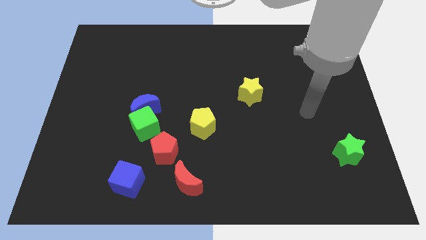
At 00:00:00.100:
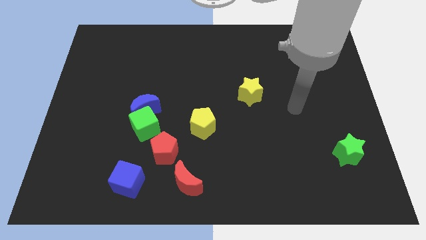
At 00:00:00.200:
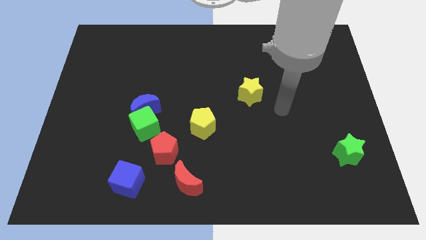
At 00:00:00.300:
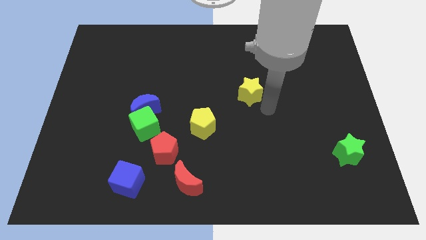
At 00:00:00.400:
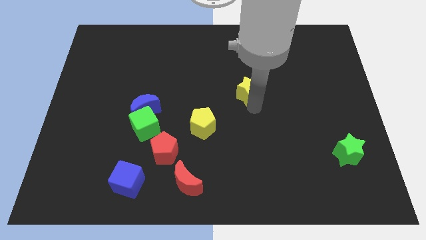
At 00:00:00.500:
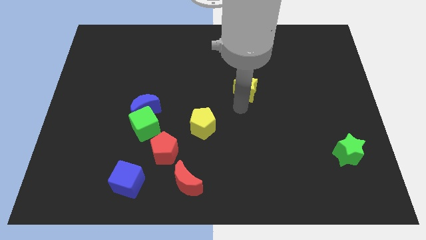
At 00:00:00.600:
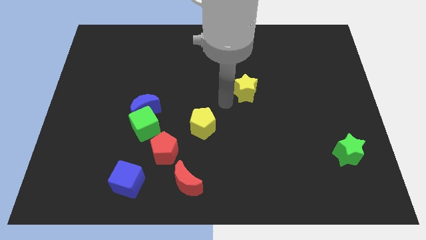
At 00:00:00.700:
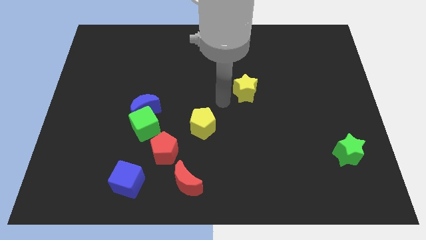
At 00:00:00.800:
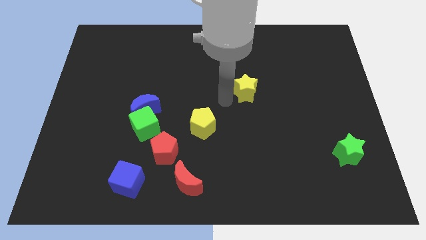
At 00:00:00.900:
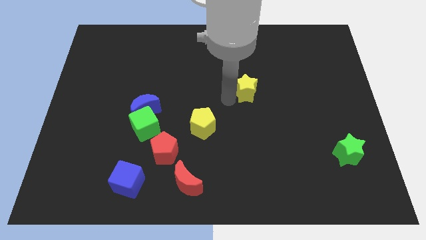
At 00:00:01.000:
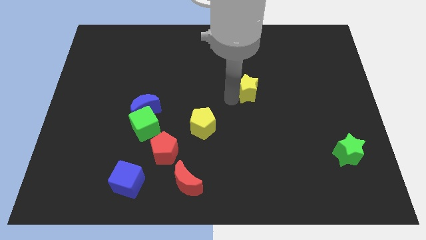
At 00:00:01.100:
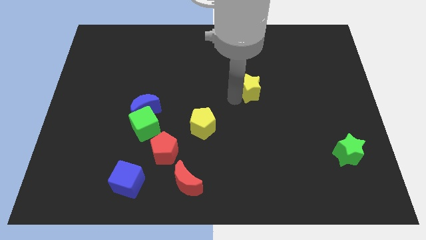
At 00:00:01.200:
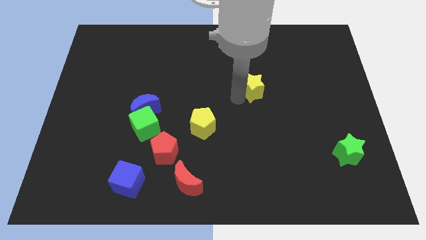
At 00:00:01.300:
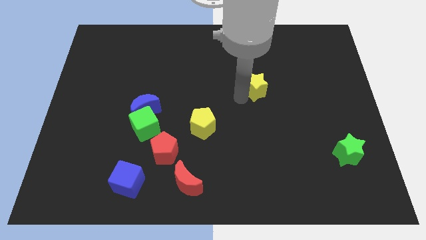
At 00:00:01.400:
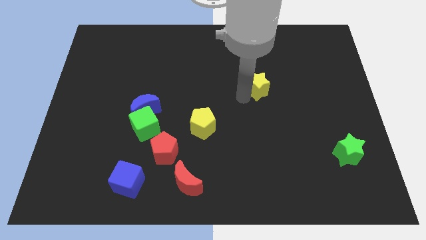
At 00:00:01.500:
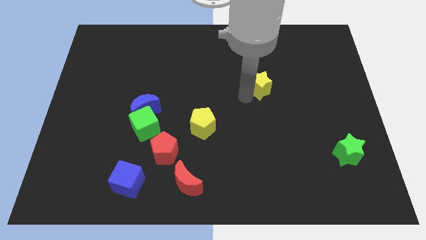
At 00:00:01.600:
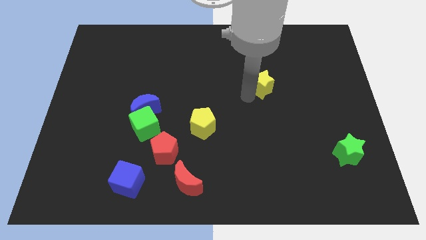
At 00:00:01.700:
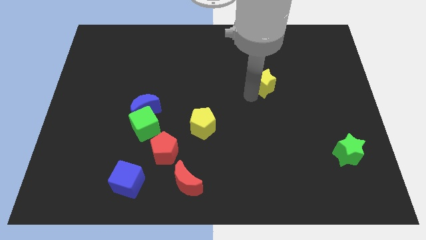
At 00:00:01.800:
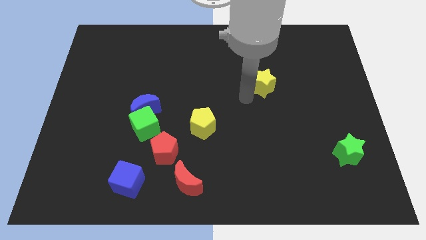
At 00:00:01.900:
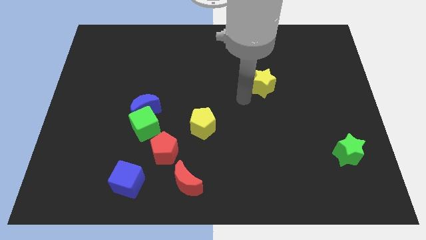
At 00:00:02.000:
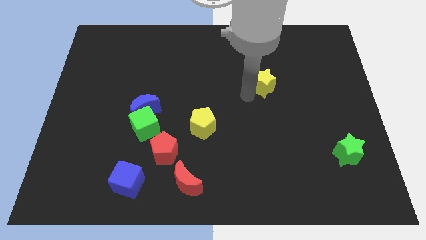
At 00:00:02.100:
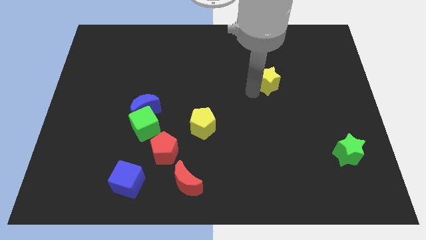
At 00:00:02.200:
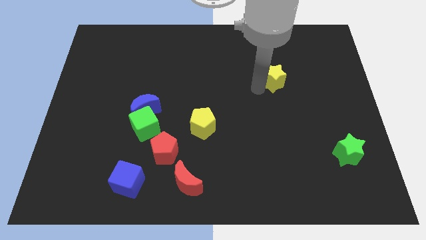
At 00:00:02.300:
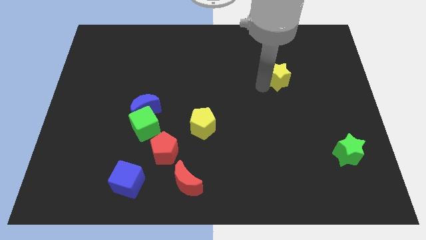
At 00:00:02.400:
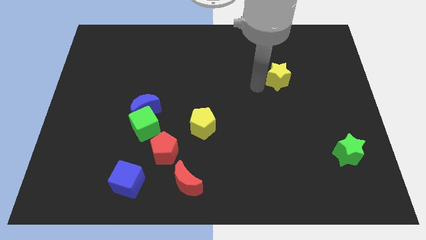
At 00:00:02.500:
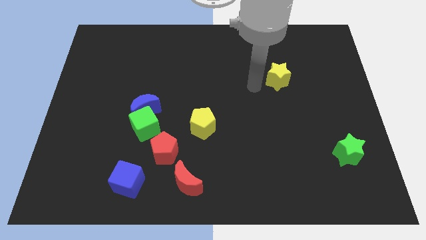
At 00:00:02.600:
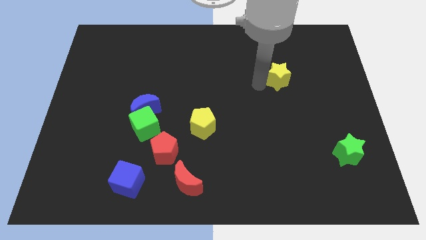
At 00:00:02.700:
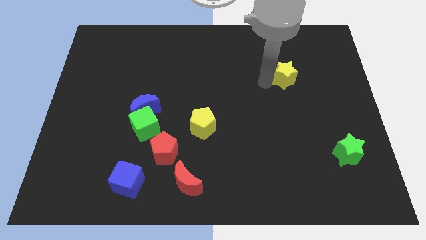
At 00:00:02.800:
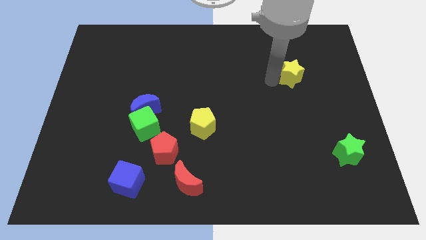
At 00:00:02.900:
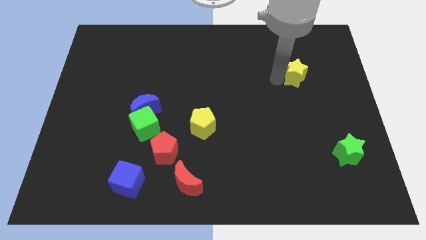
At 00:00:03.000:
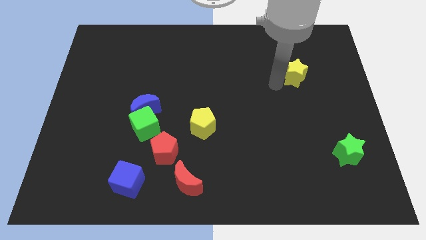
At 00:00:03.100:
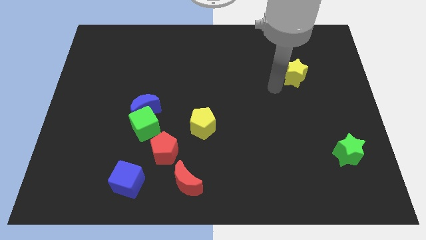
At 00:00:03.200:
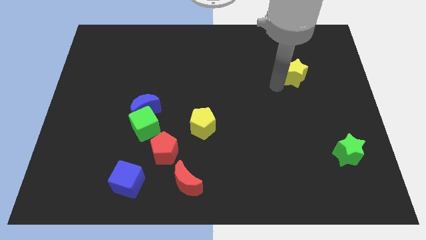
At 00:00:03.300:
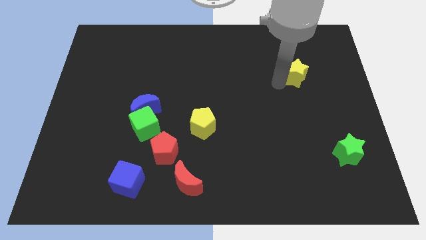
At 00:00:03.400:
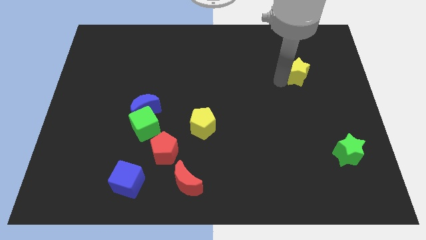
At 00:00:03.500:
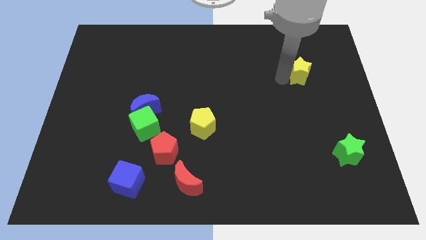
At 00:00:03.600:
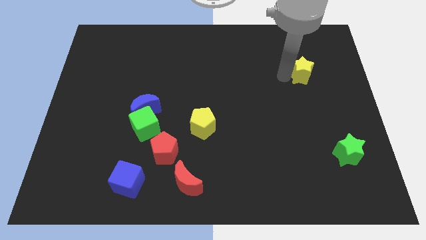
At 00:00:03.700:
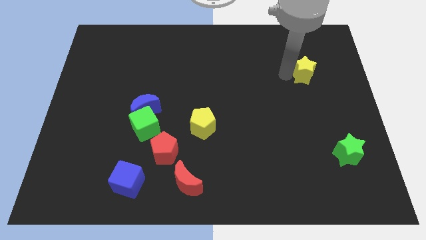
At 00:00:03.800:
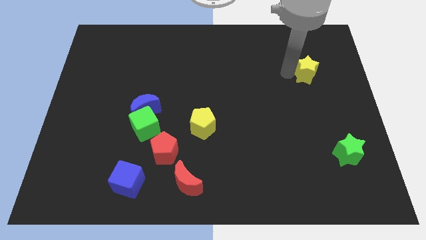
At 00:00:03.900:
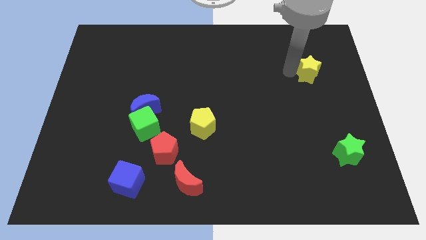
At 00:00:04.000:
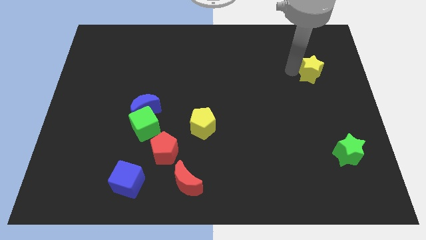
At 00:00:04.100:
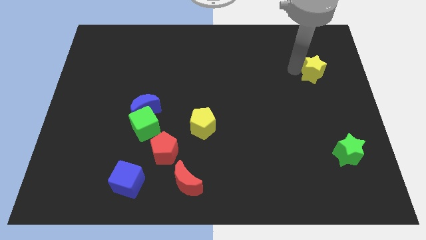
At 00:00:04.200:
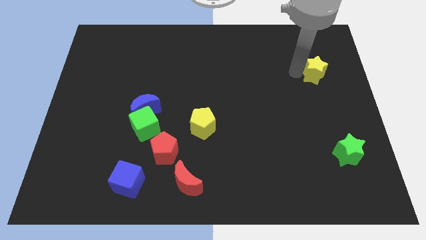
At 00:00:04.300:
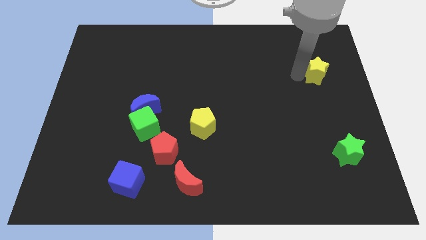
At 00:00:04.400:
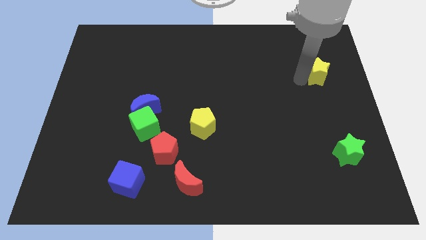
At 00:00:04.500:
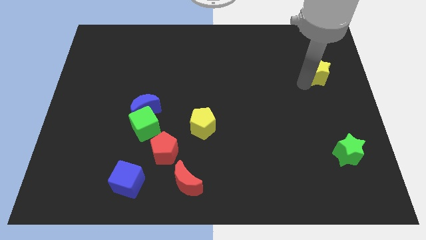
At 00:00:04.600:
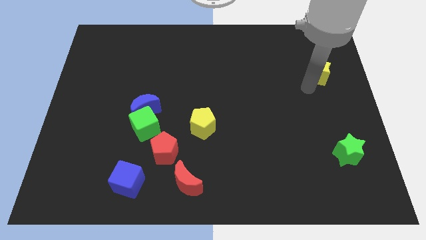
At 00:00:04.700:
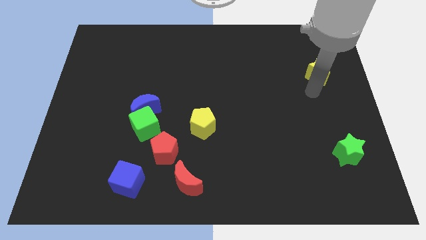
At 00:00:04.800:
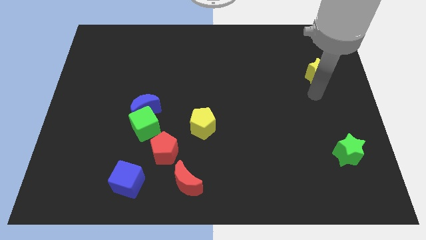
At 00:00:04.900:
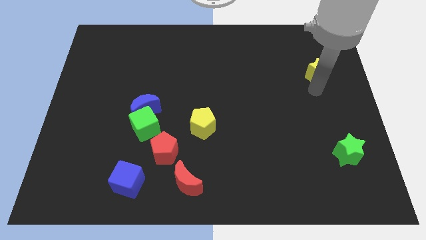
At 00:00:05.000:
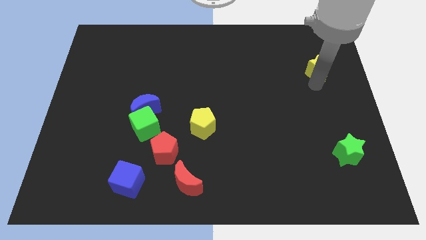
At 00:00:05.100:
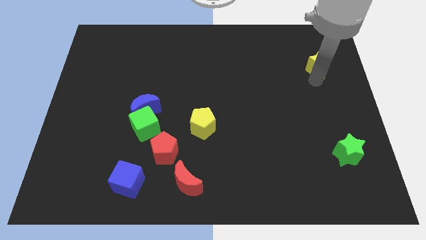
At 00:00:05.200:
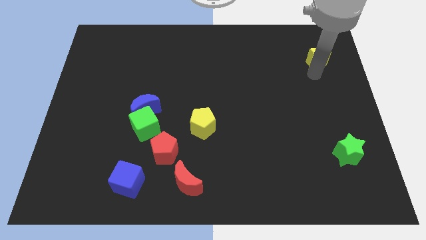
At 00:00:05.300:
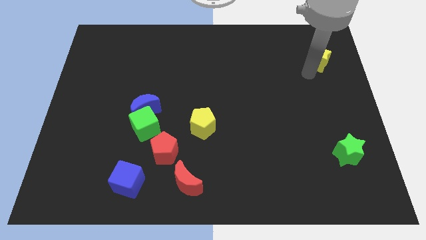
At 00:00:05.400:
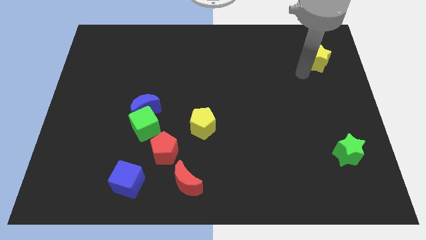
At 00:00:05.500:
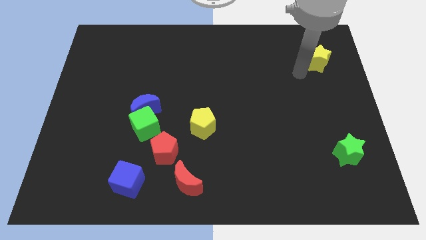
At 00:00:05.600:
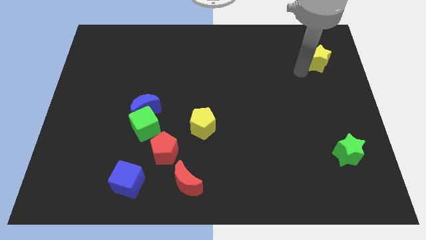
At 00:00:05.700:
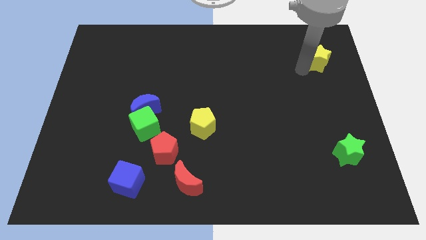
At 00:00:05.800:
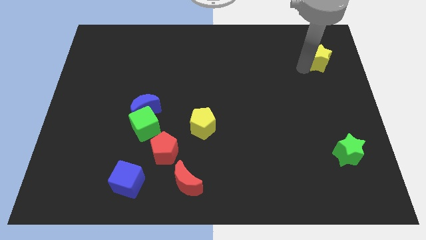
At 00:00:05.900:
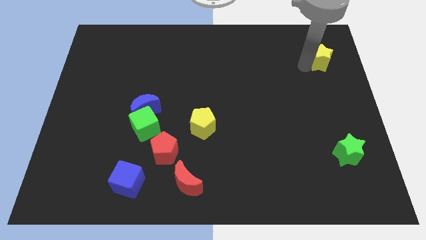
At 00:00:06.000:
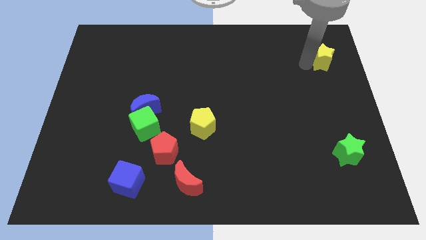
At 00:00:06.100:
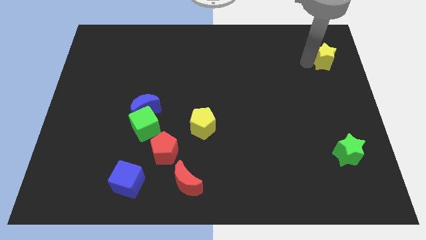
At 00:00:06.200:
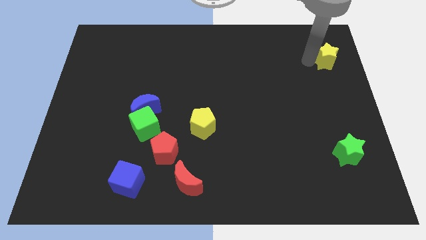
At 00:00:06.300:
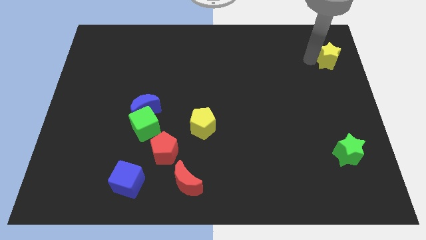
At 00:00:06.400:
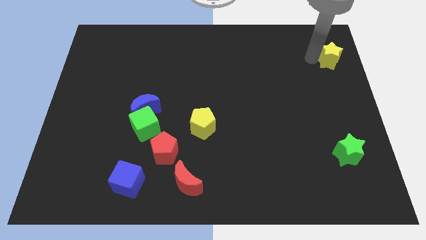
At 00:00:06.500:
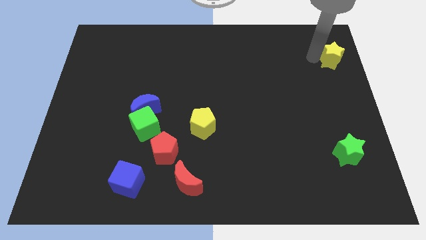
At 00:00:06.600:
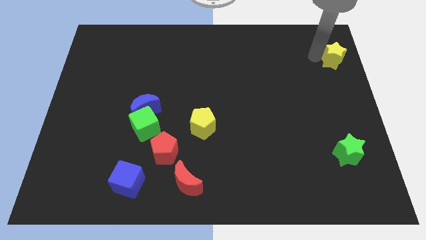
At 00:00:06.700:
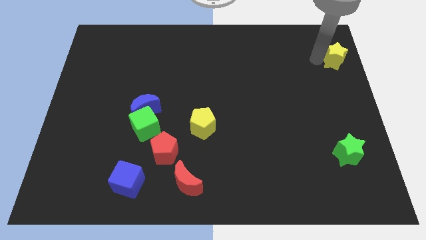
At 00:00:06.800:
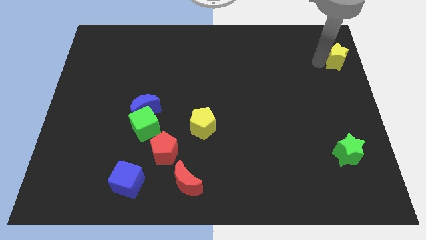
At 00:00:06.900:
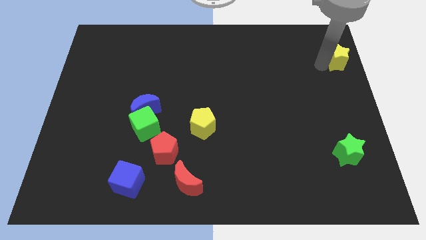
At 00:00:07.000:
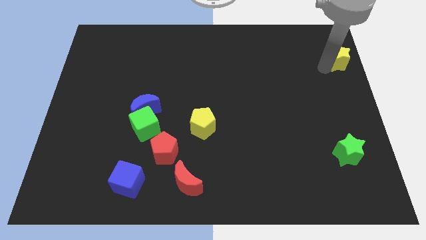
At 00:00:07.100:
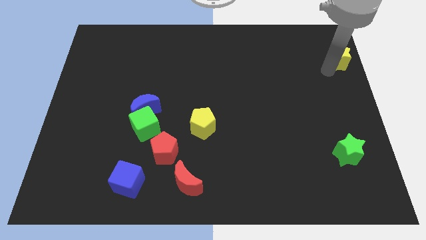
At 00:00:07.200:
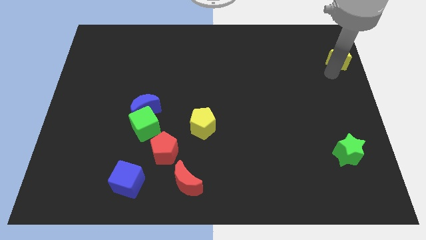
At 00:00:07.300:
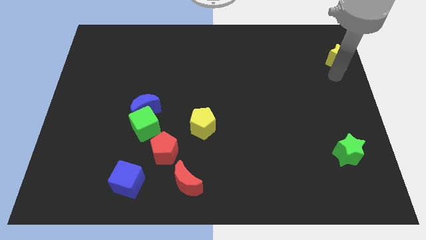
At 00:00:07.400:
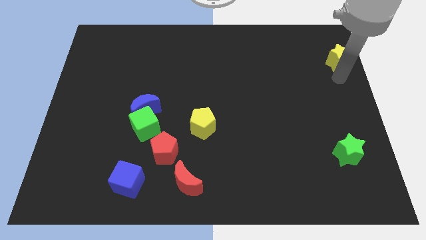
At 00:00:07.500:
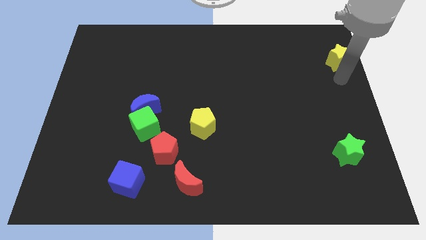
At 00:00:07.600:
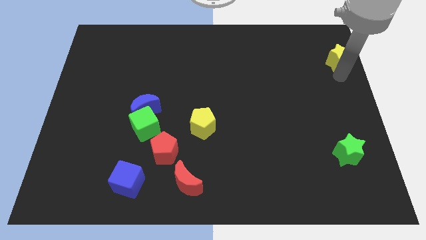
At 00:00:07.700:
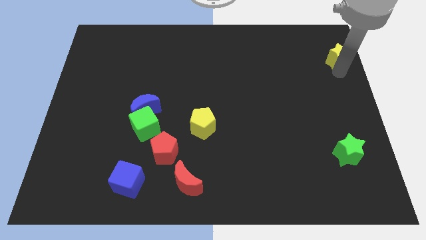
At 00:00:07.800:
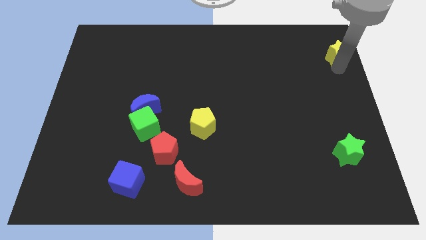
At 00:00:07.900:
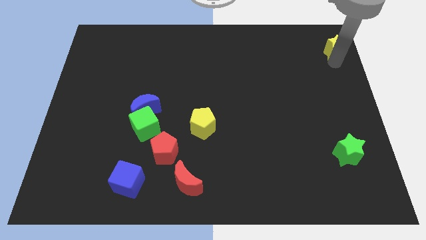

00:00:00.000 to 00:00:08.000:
slide the yellow star to the top right corner
